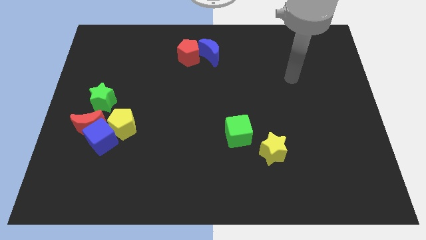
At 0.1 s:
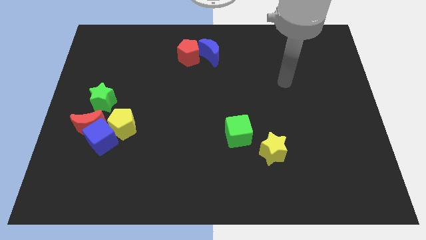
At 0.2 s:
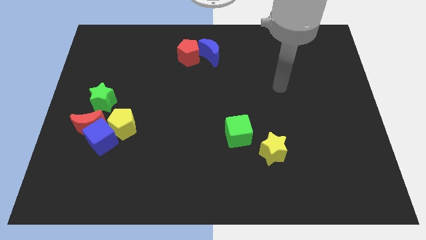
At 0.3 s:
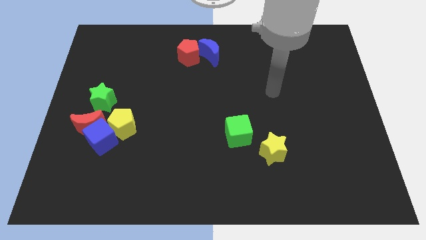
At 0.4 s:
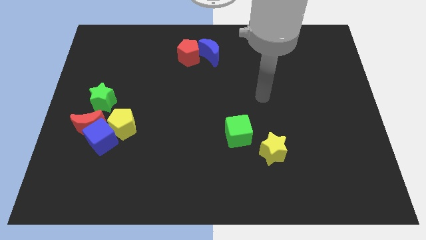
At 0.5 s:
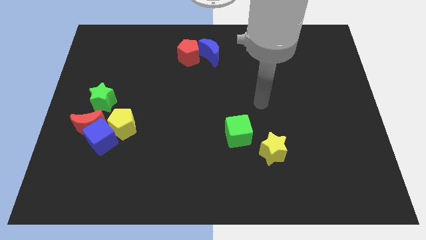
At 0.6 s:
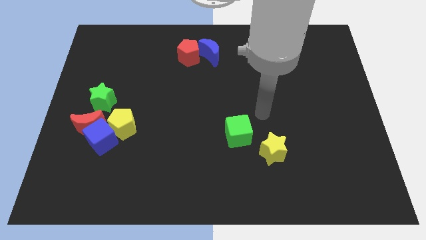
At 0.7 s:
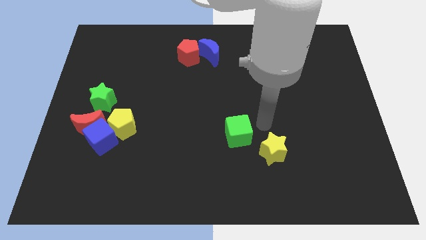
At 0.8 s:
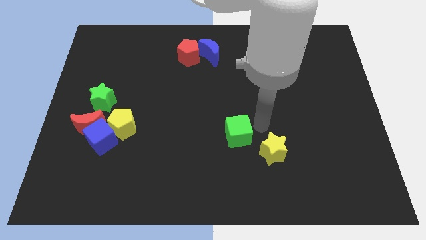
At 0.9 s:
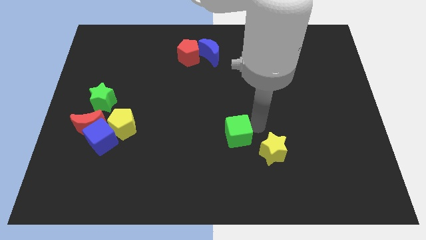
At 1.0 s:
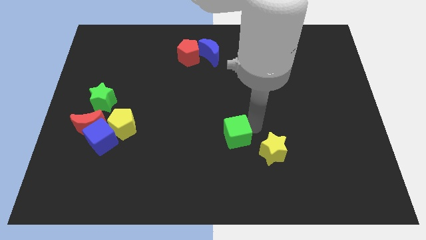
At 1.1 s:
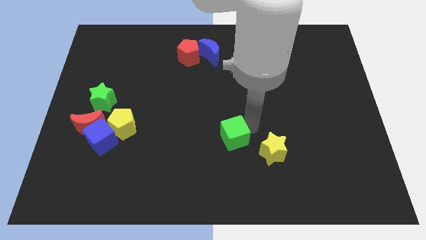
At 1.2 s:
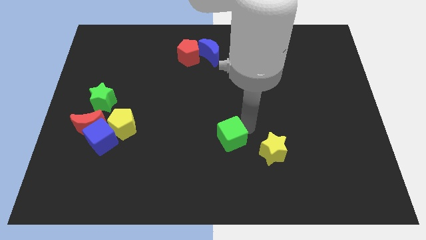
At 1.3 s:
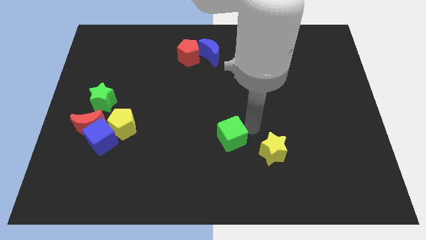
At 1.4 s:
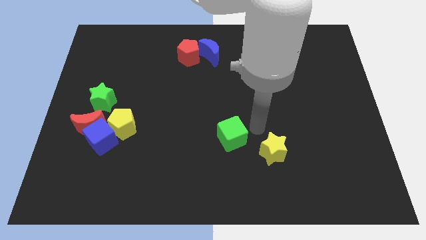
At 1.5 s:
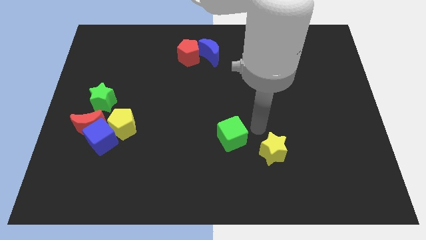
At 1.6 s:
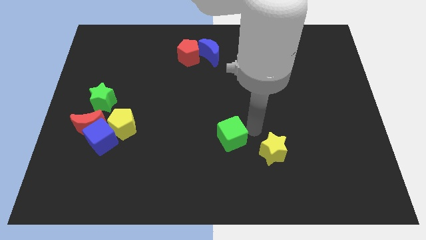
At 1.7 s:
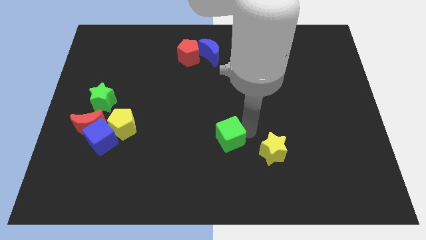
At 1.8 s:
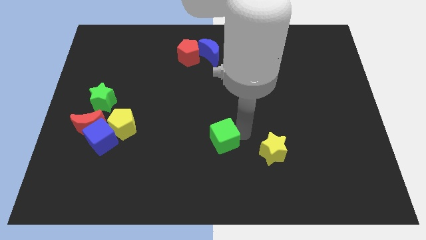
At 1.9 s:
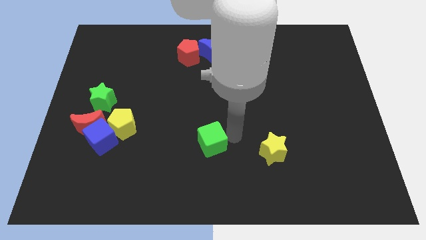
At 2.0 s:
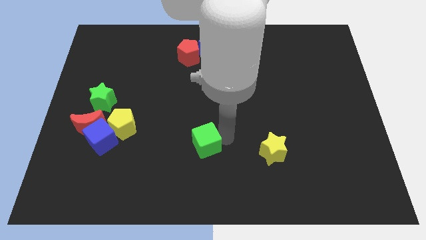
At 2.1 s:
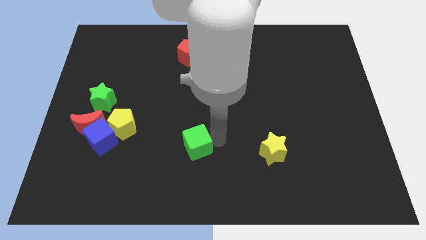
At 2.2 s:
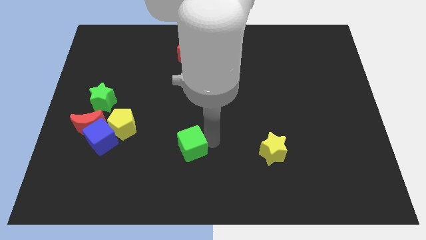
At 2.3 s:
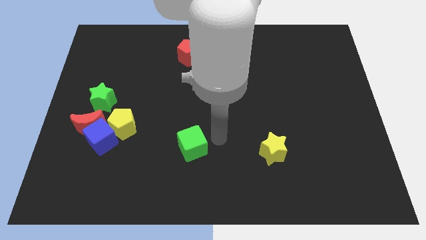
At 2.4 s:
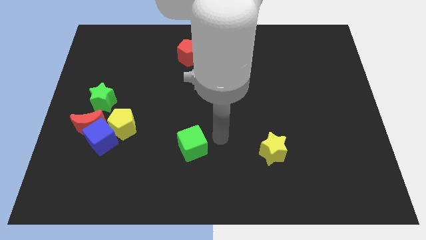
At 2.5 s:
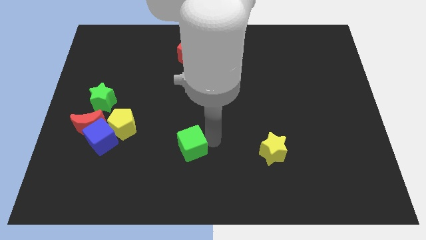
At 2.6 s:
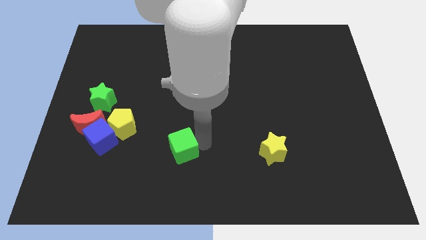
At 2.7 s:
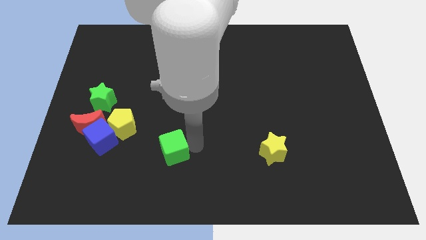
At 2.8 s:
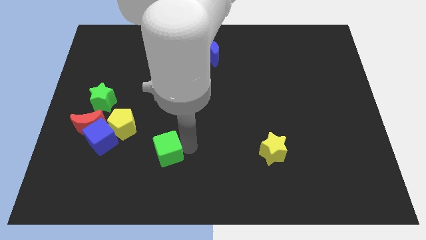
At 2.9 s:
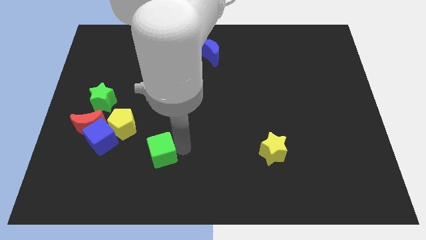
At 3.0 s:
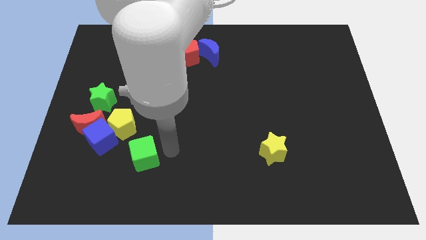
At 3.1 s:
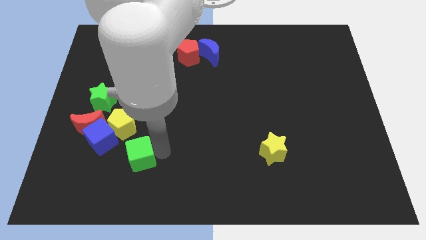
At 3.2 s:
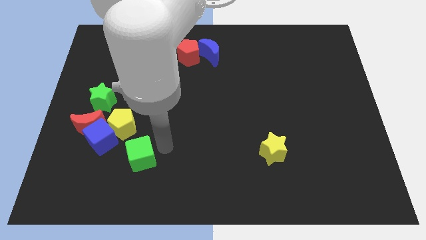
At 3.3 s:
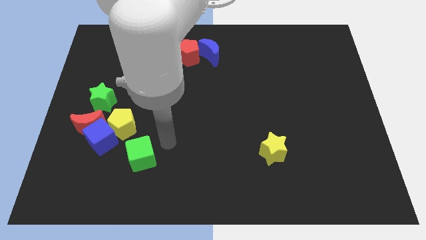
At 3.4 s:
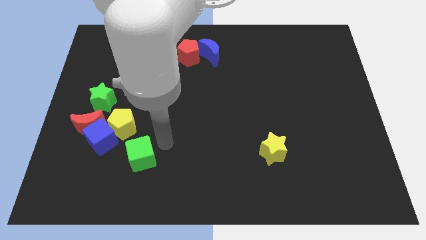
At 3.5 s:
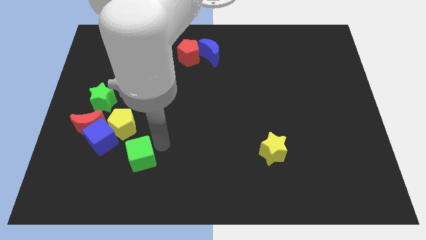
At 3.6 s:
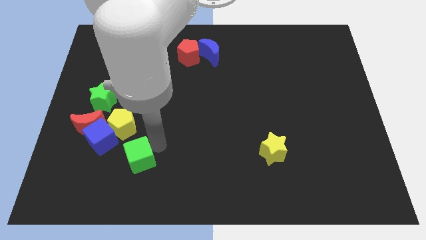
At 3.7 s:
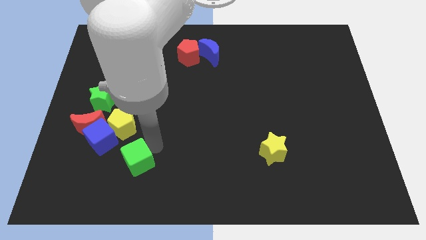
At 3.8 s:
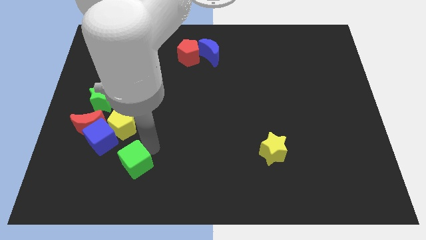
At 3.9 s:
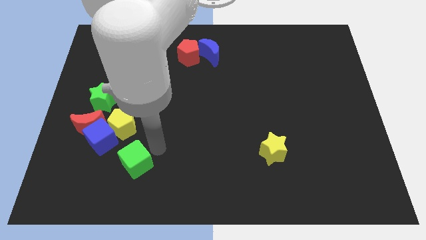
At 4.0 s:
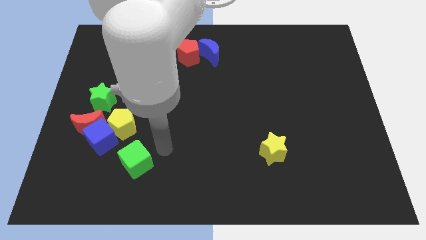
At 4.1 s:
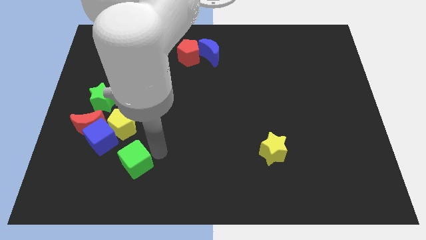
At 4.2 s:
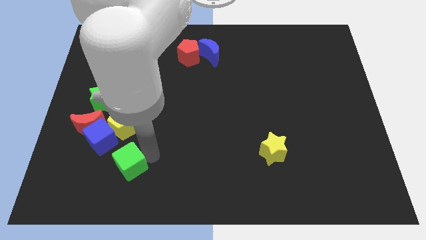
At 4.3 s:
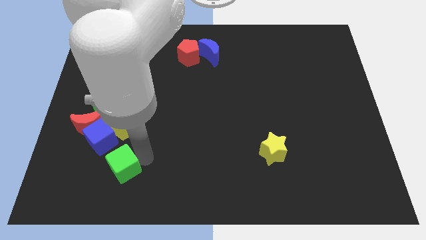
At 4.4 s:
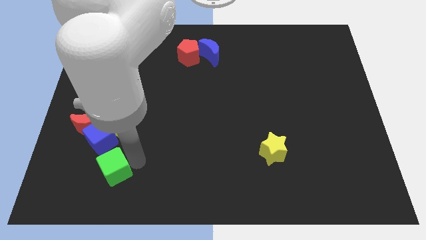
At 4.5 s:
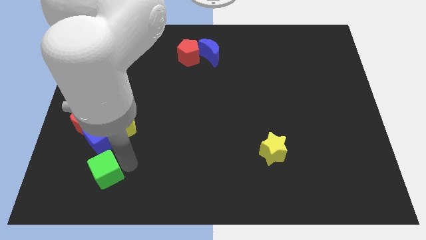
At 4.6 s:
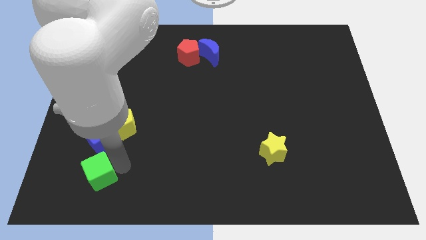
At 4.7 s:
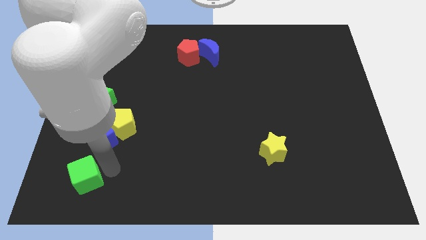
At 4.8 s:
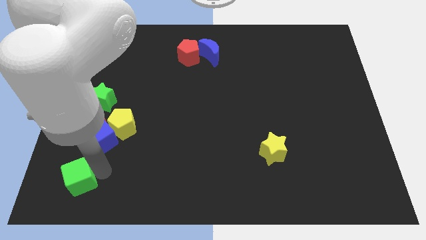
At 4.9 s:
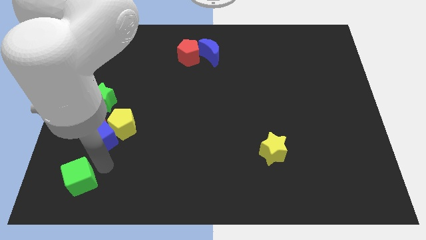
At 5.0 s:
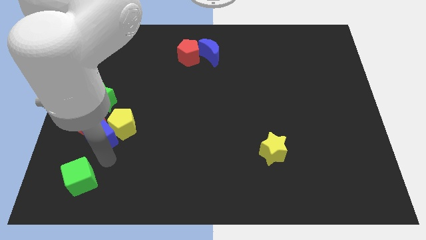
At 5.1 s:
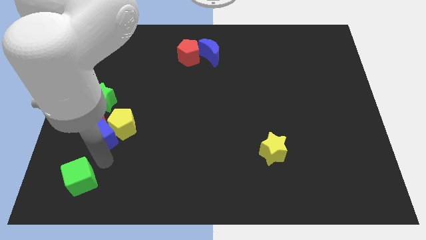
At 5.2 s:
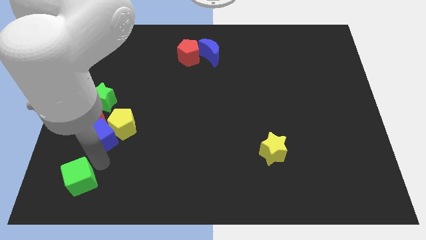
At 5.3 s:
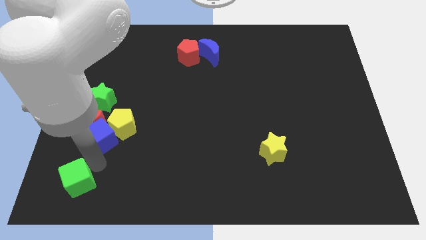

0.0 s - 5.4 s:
slide the green cube to the lower left corner

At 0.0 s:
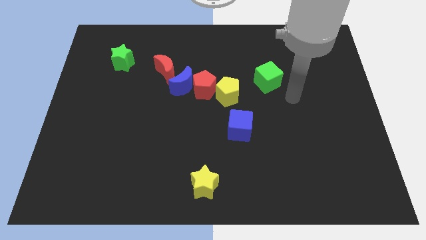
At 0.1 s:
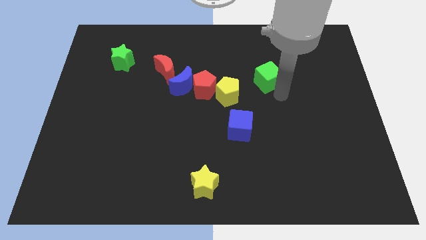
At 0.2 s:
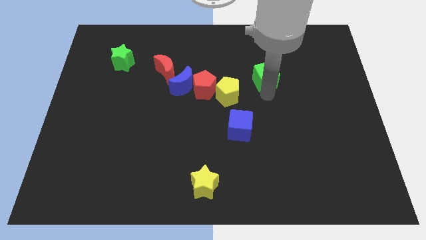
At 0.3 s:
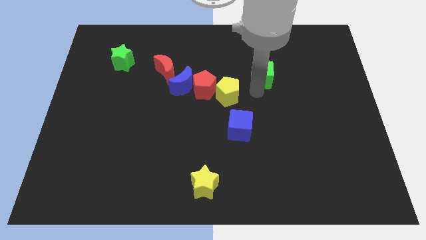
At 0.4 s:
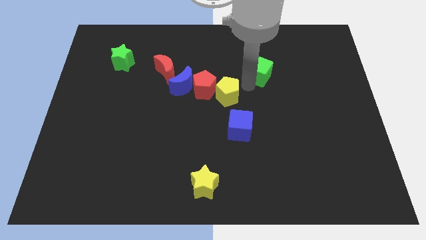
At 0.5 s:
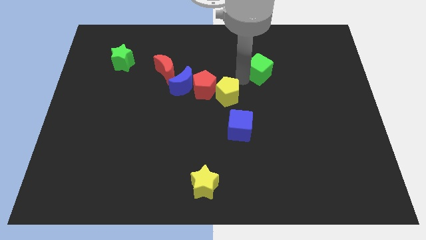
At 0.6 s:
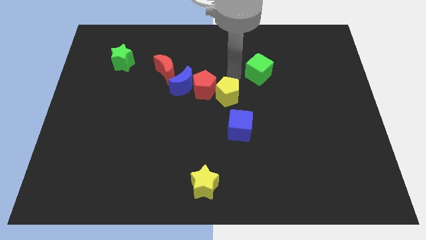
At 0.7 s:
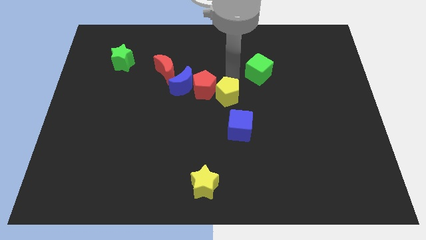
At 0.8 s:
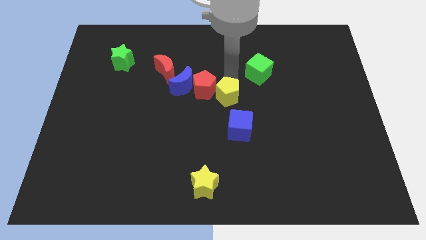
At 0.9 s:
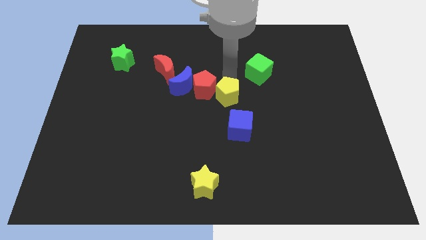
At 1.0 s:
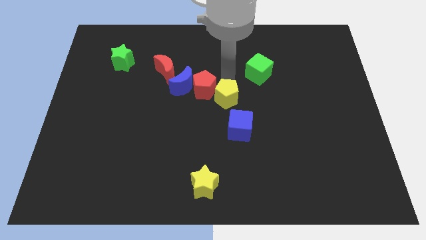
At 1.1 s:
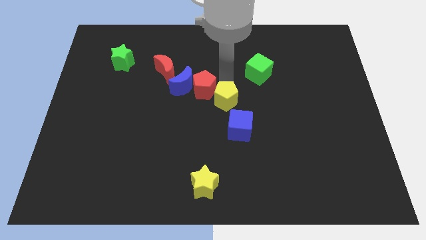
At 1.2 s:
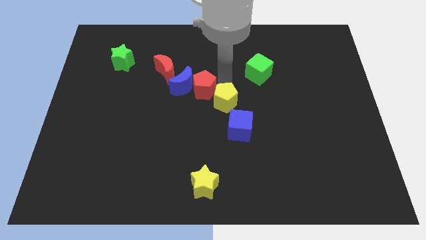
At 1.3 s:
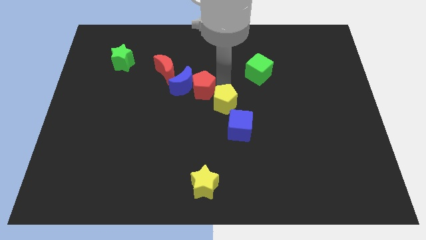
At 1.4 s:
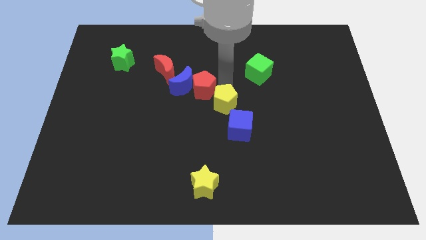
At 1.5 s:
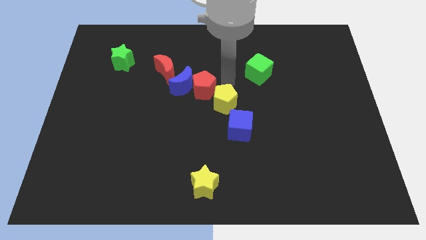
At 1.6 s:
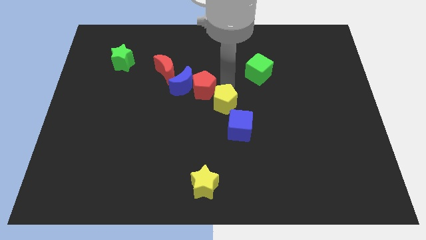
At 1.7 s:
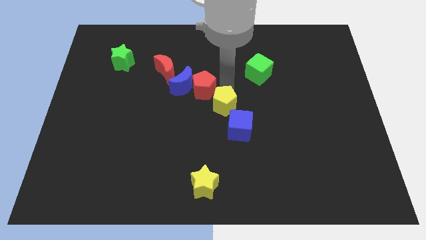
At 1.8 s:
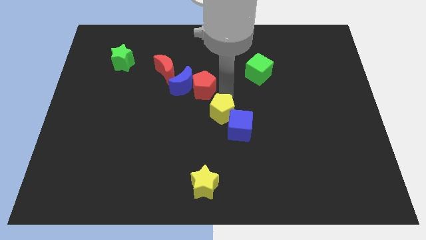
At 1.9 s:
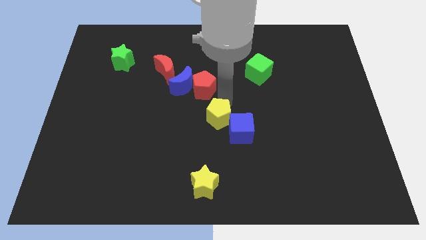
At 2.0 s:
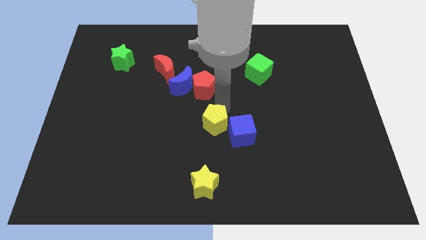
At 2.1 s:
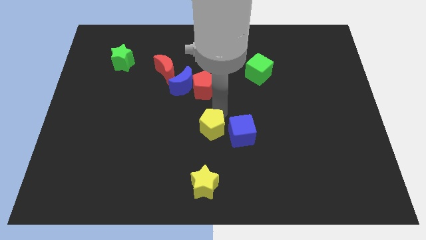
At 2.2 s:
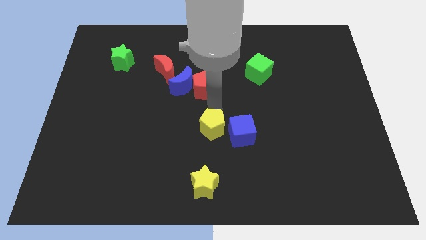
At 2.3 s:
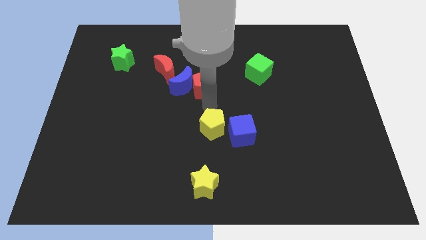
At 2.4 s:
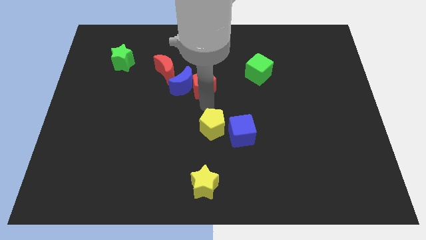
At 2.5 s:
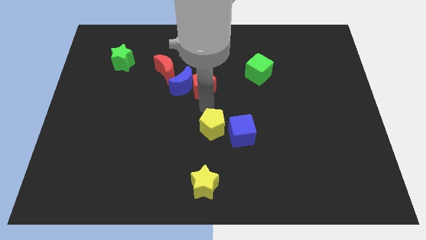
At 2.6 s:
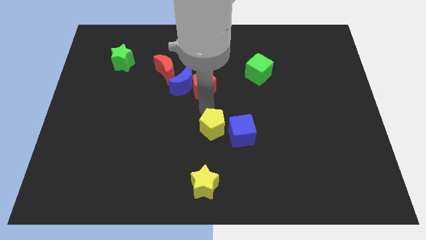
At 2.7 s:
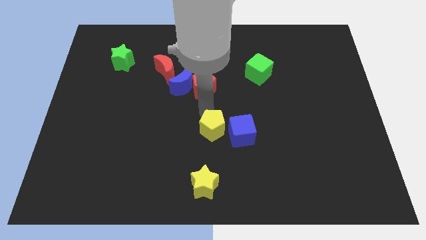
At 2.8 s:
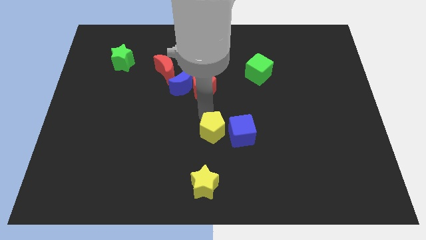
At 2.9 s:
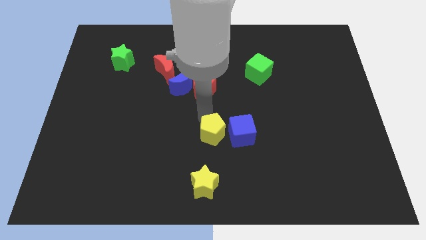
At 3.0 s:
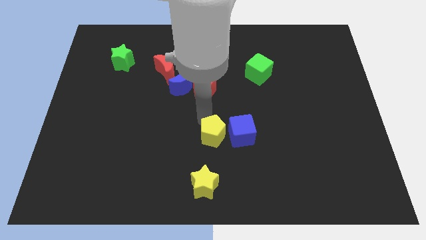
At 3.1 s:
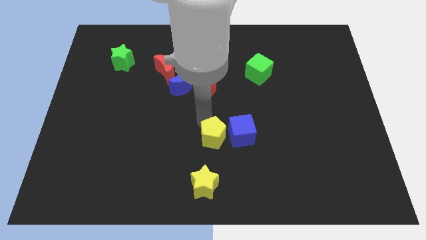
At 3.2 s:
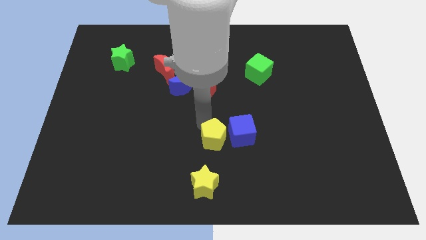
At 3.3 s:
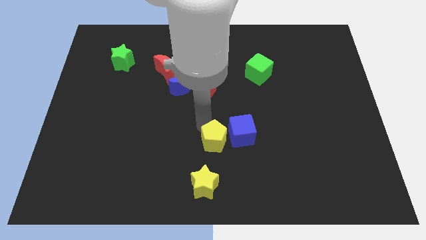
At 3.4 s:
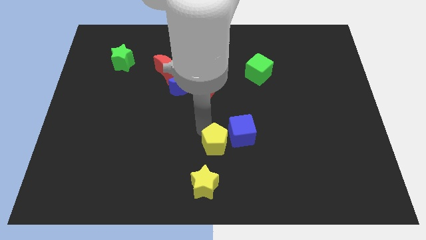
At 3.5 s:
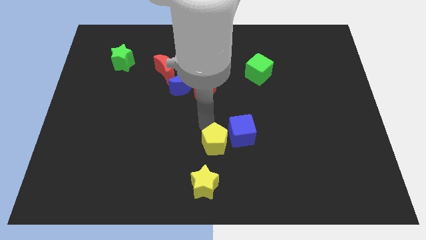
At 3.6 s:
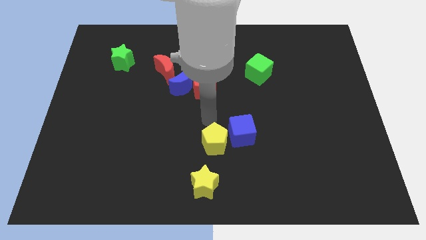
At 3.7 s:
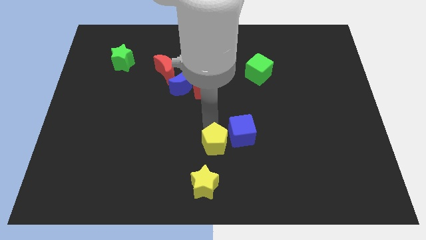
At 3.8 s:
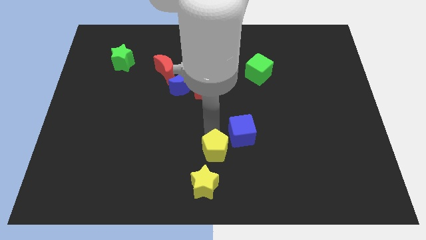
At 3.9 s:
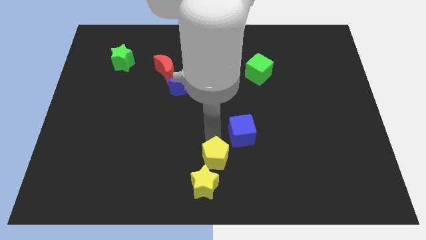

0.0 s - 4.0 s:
slide the yellow pentagon to the bottom side
